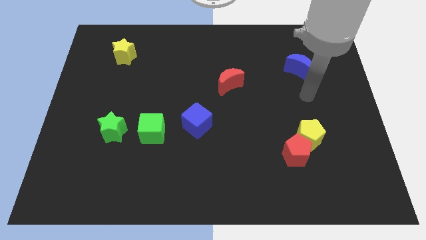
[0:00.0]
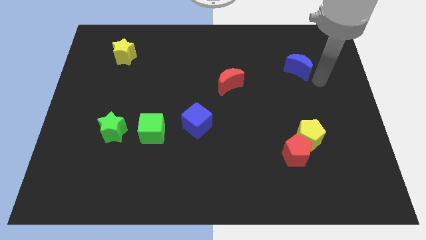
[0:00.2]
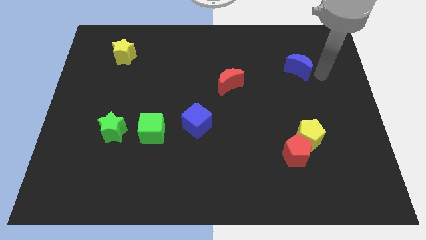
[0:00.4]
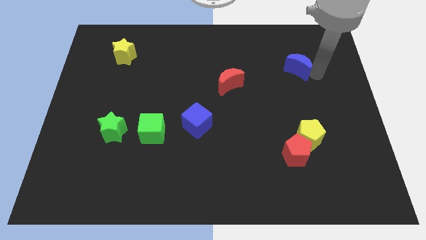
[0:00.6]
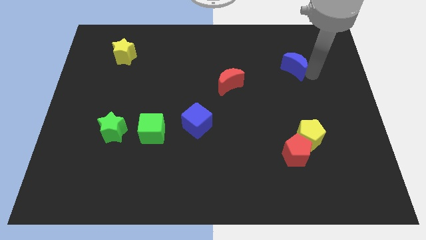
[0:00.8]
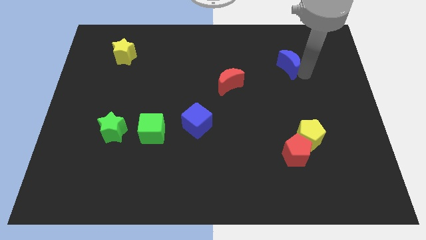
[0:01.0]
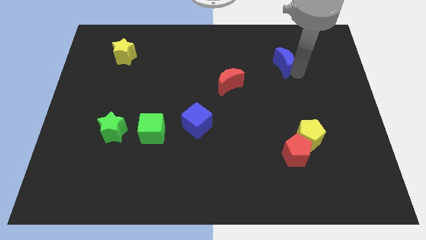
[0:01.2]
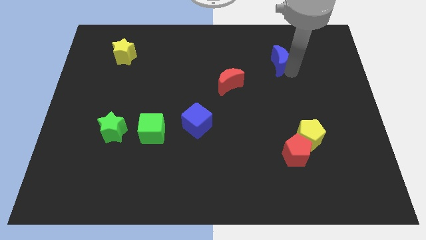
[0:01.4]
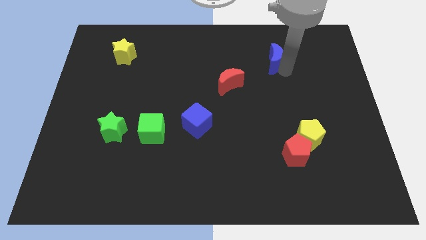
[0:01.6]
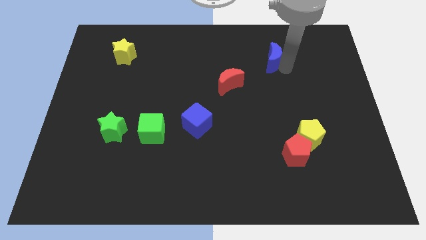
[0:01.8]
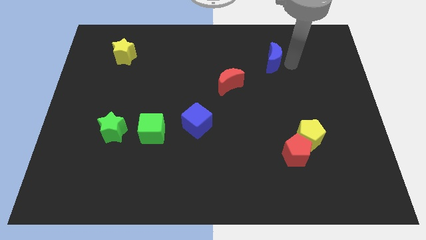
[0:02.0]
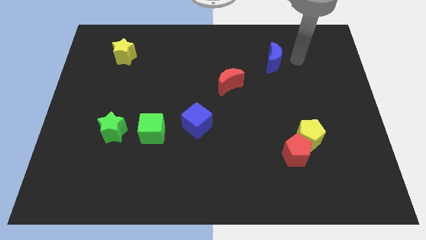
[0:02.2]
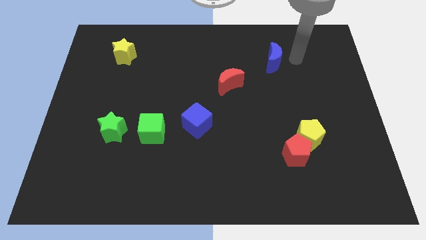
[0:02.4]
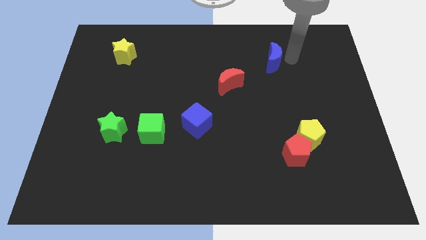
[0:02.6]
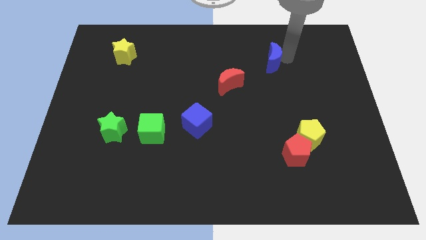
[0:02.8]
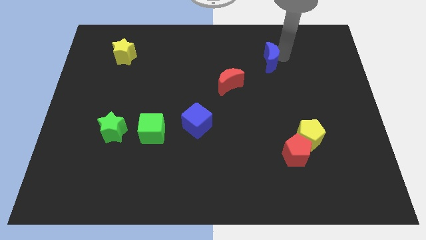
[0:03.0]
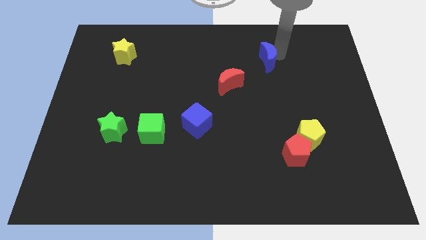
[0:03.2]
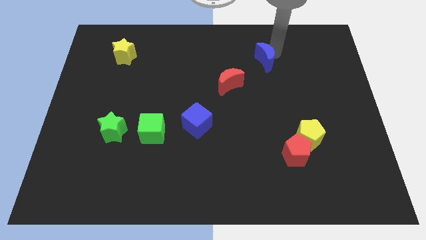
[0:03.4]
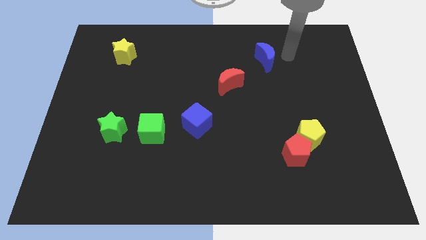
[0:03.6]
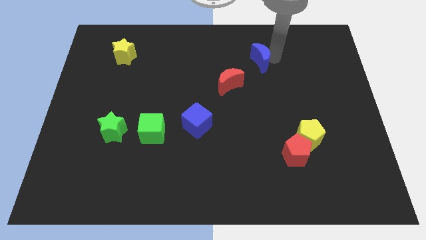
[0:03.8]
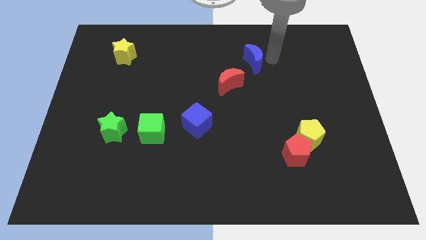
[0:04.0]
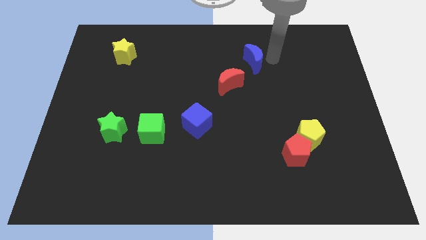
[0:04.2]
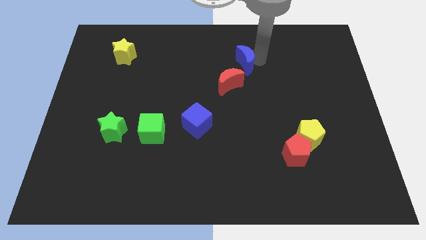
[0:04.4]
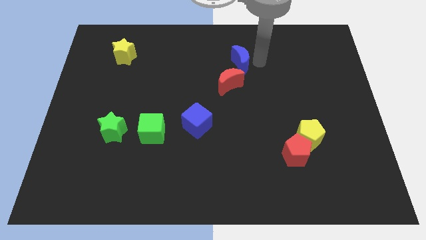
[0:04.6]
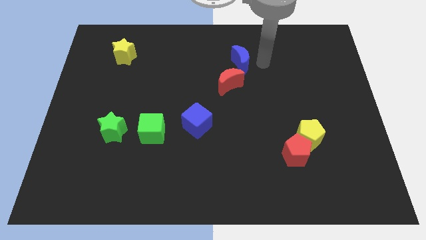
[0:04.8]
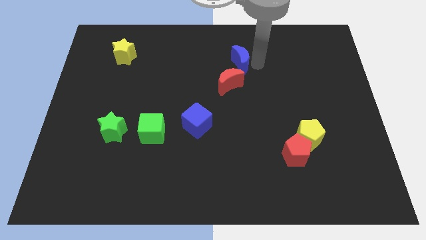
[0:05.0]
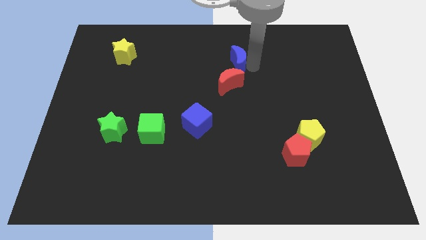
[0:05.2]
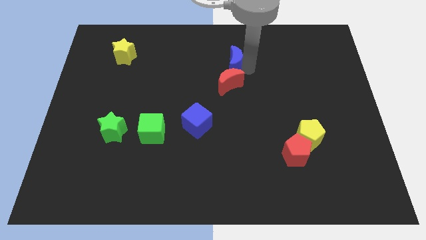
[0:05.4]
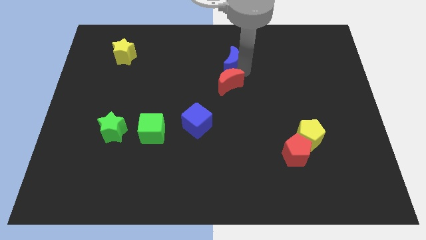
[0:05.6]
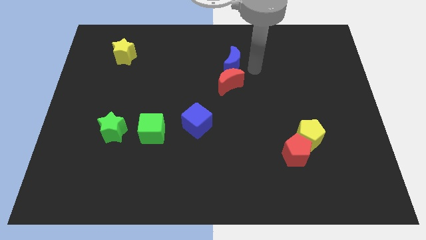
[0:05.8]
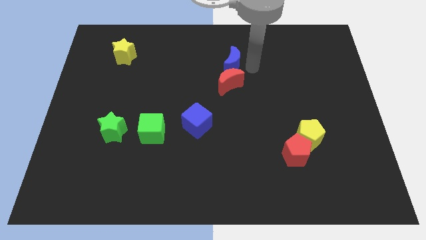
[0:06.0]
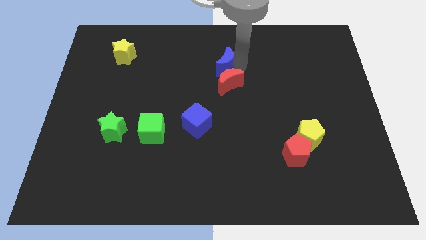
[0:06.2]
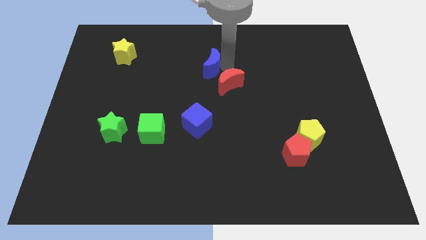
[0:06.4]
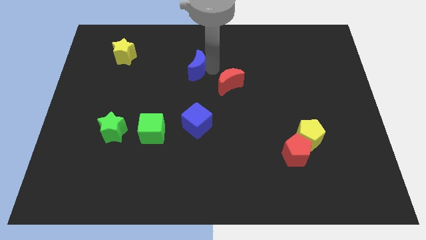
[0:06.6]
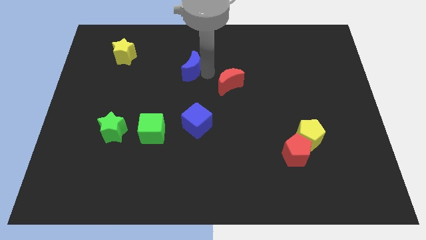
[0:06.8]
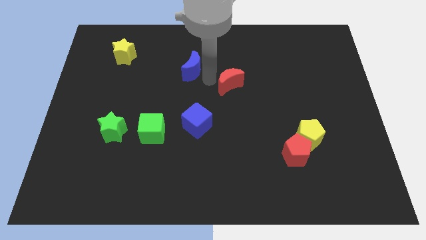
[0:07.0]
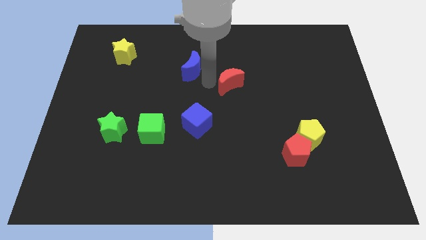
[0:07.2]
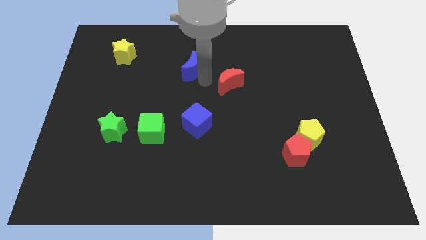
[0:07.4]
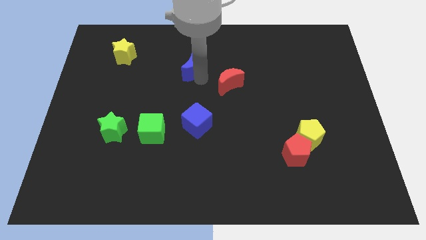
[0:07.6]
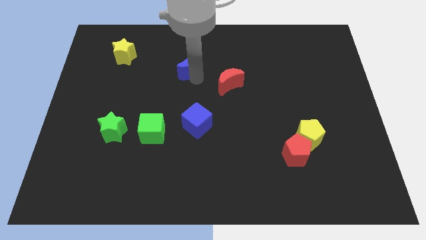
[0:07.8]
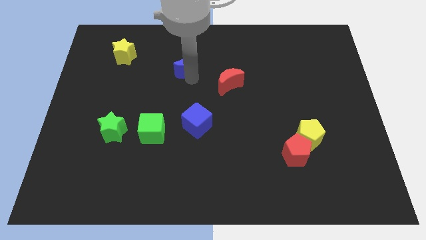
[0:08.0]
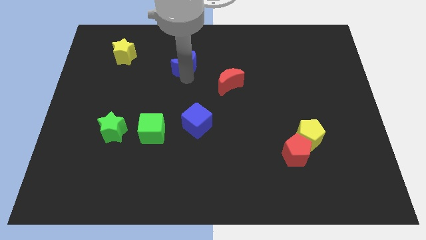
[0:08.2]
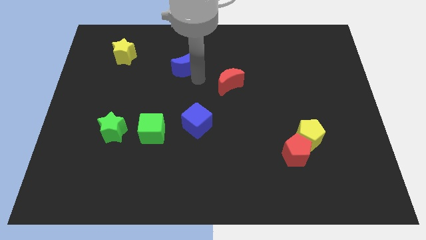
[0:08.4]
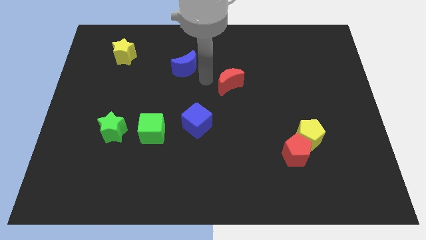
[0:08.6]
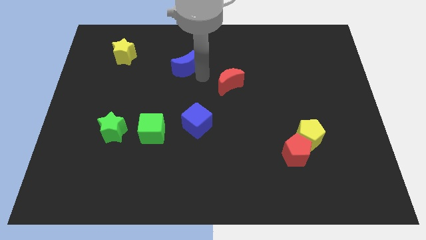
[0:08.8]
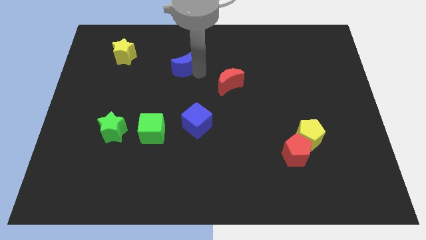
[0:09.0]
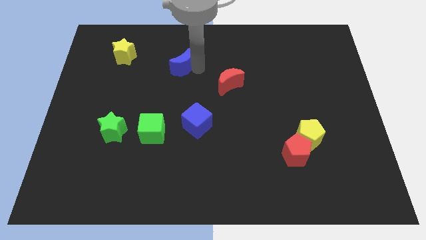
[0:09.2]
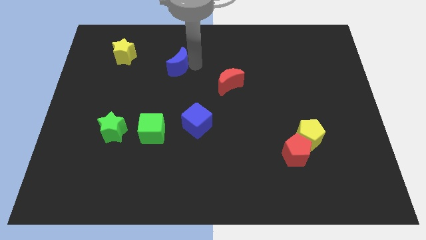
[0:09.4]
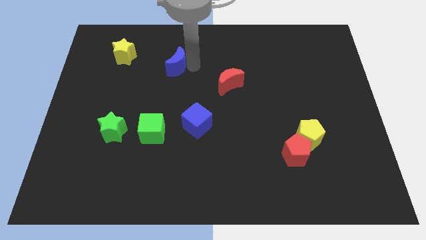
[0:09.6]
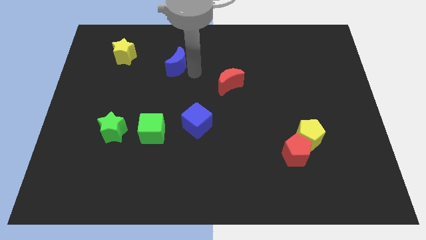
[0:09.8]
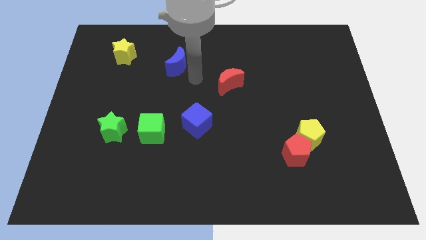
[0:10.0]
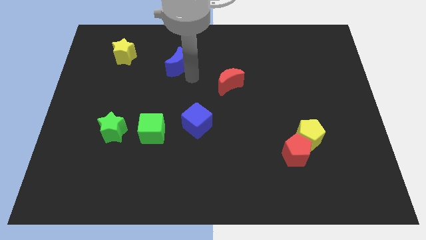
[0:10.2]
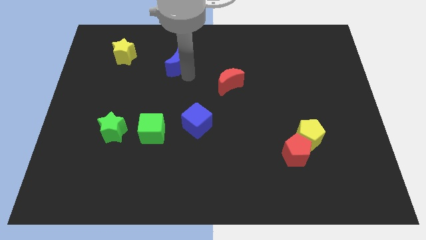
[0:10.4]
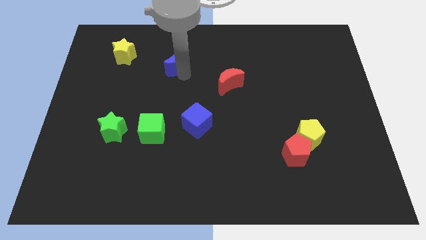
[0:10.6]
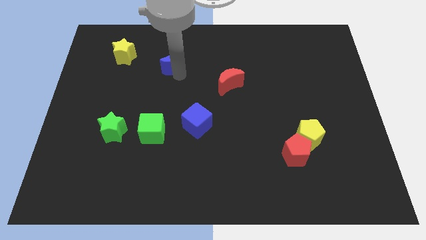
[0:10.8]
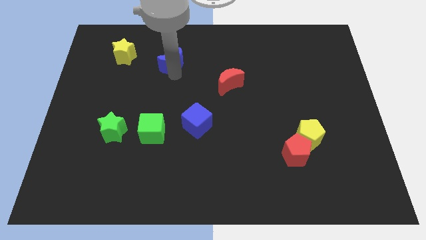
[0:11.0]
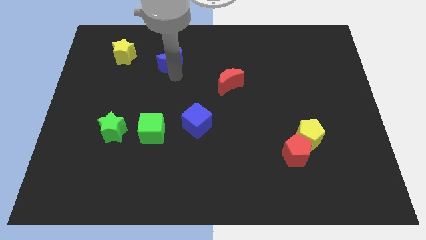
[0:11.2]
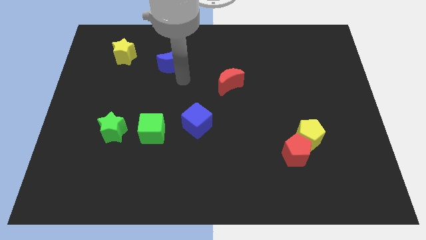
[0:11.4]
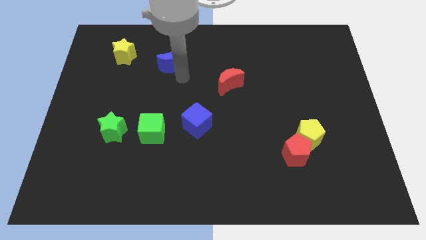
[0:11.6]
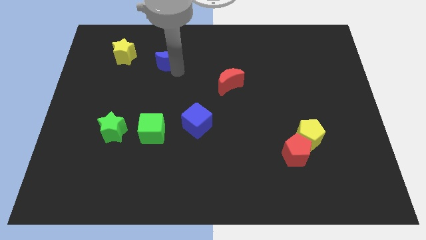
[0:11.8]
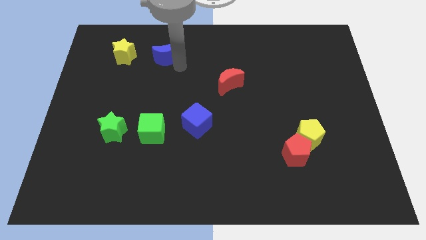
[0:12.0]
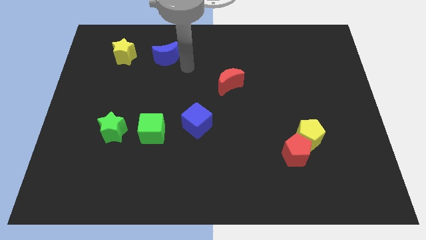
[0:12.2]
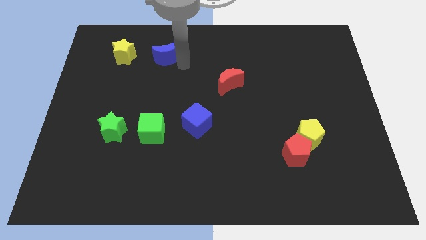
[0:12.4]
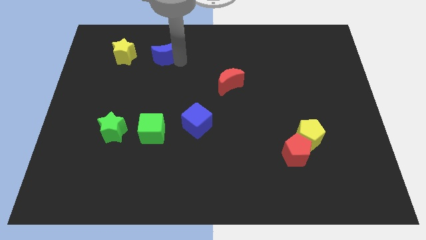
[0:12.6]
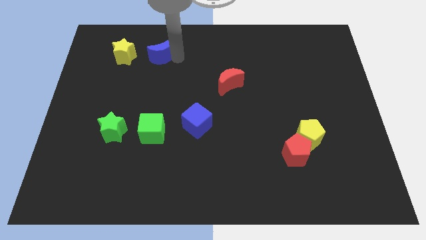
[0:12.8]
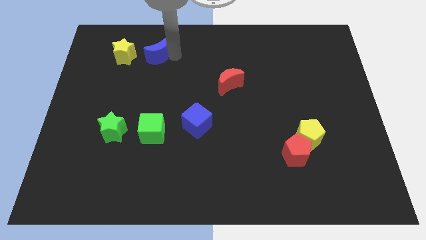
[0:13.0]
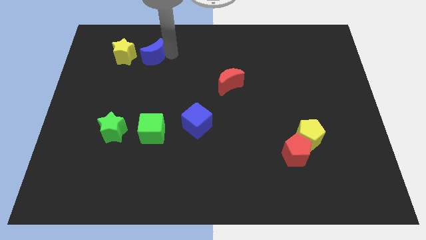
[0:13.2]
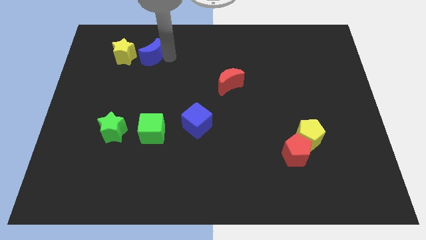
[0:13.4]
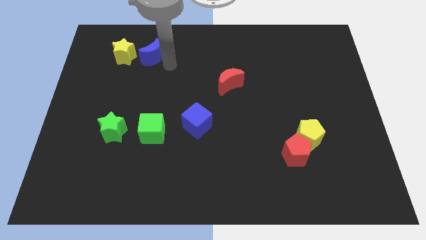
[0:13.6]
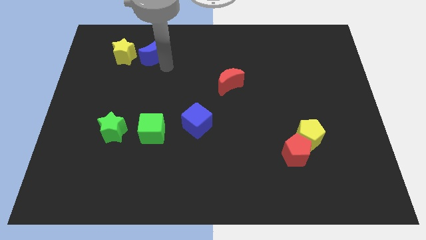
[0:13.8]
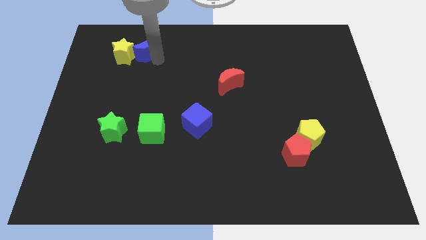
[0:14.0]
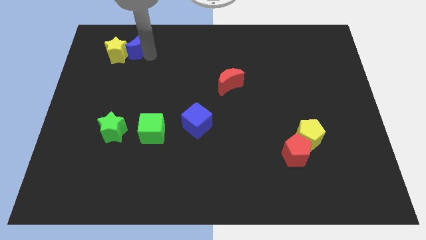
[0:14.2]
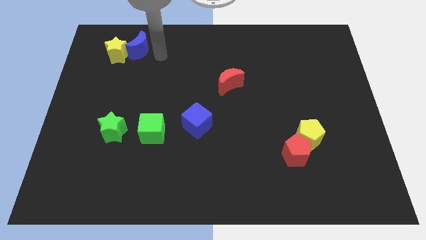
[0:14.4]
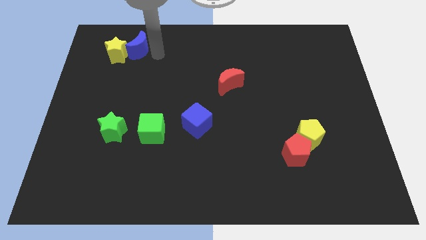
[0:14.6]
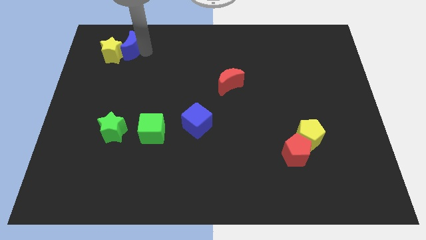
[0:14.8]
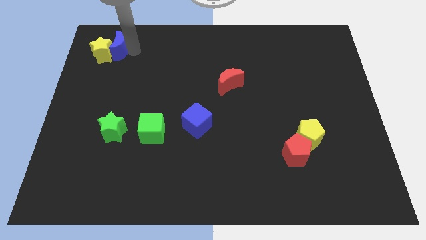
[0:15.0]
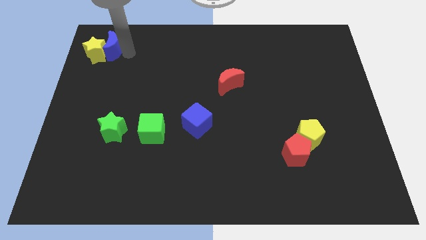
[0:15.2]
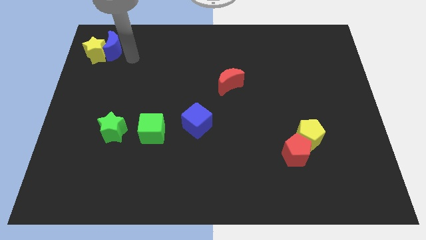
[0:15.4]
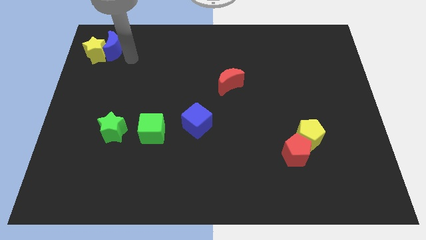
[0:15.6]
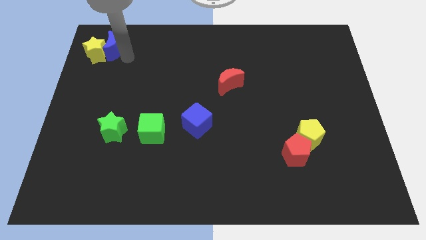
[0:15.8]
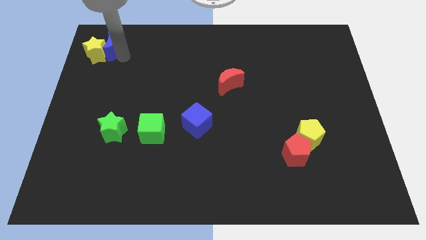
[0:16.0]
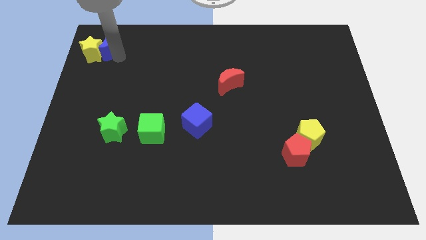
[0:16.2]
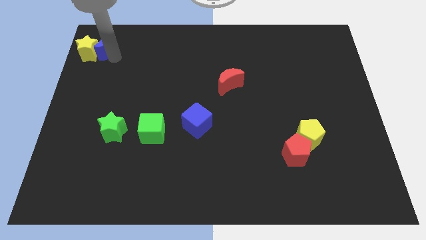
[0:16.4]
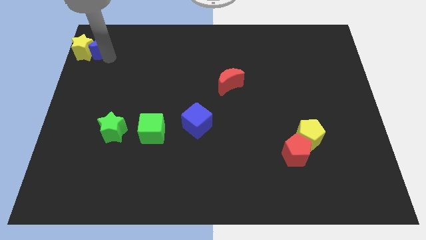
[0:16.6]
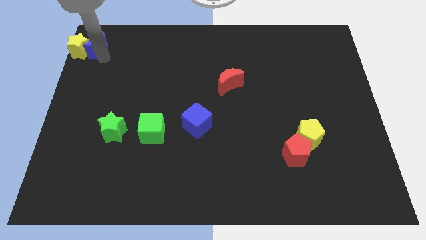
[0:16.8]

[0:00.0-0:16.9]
slide the blue moon to the top left
